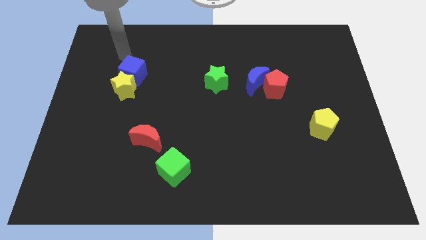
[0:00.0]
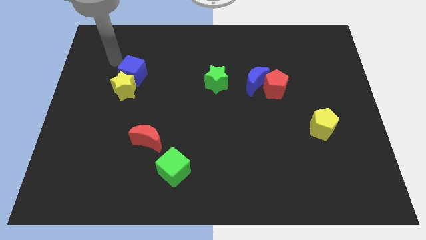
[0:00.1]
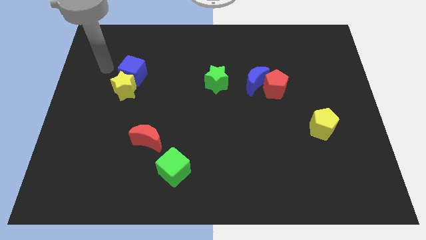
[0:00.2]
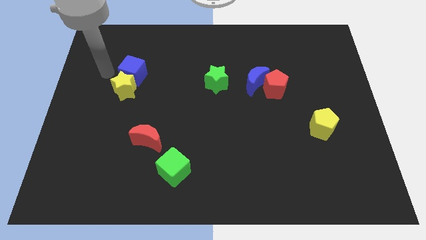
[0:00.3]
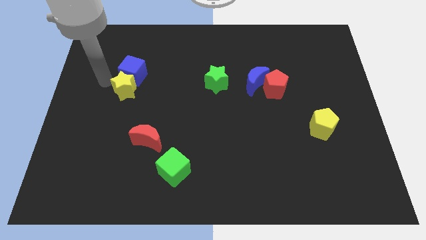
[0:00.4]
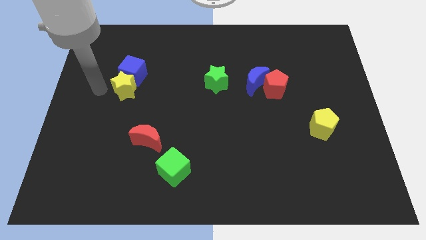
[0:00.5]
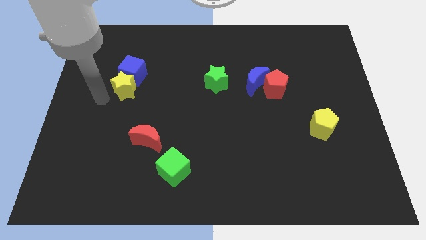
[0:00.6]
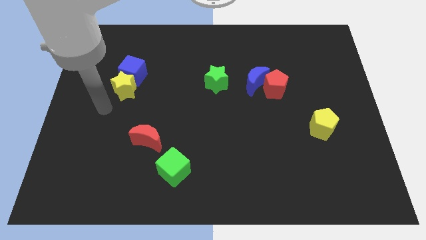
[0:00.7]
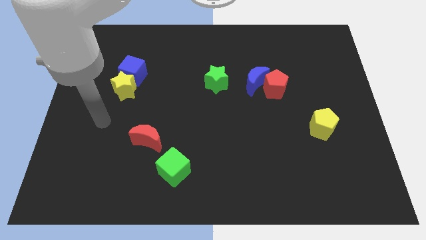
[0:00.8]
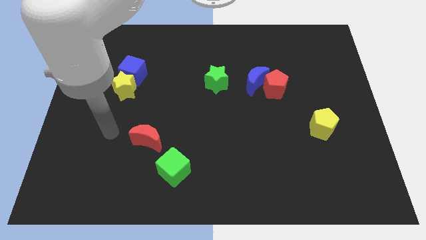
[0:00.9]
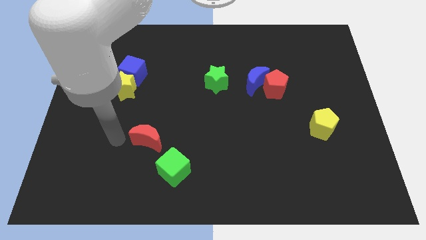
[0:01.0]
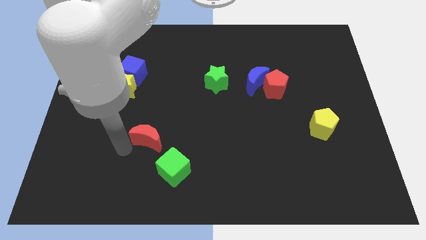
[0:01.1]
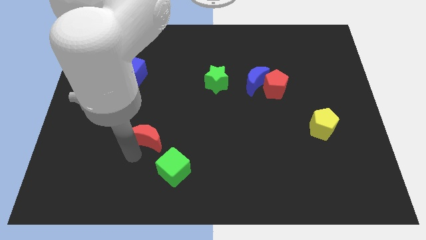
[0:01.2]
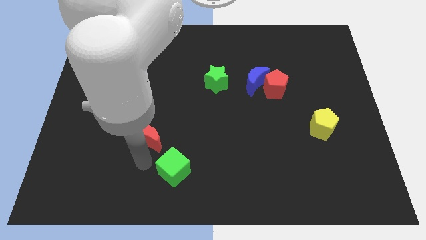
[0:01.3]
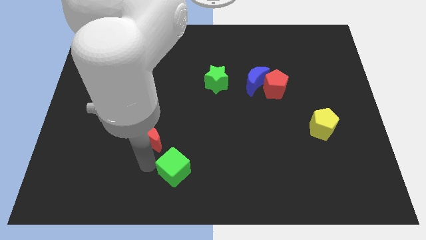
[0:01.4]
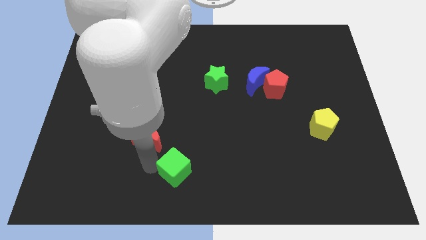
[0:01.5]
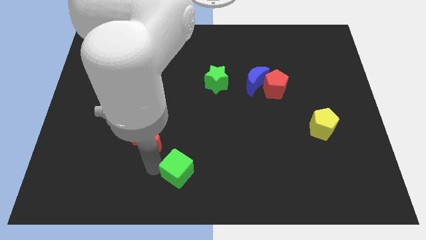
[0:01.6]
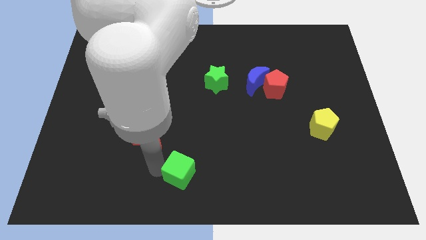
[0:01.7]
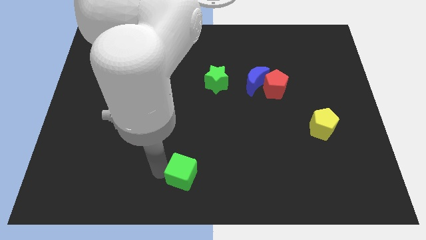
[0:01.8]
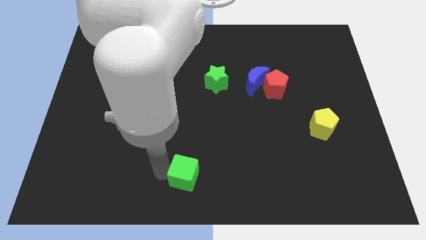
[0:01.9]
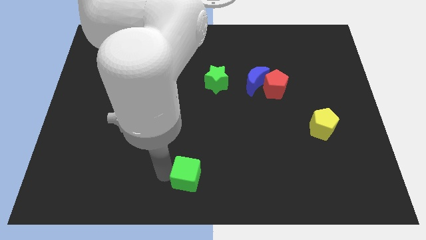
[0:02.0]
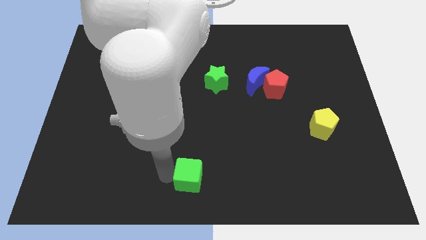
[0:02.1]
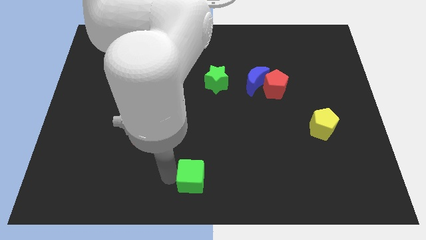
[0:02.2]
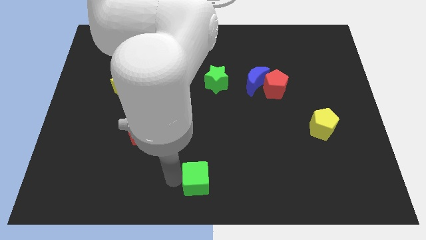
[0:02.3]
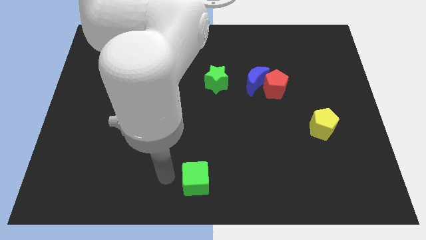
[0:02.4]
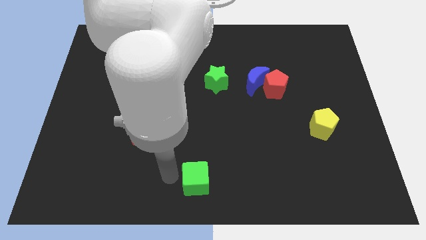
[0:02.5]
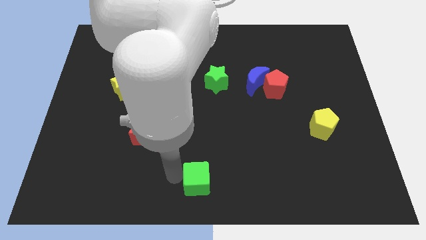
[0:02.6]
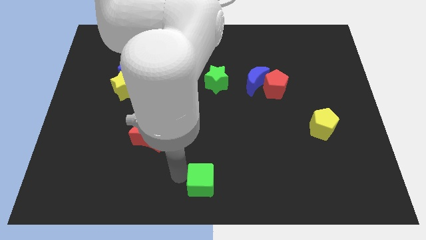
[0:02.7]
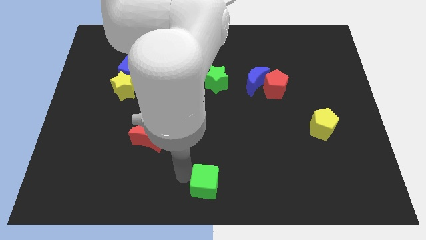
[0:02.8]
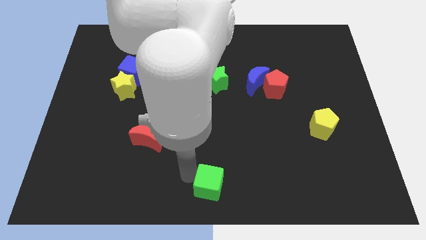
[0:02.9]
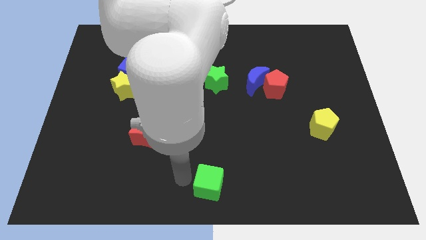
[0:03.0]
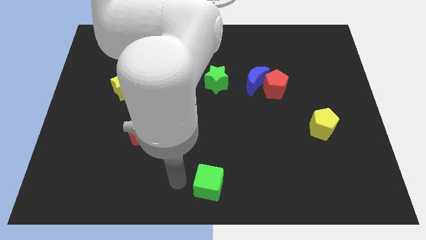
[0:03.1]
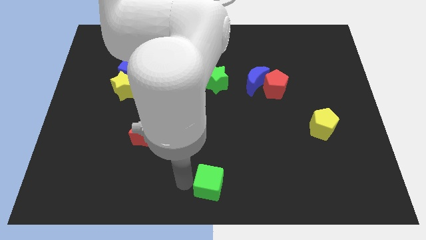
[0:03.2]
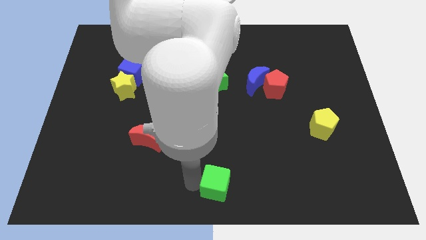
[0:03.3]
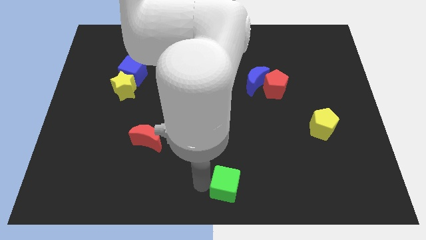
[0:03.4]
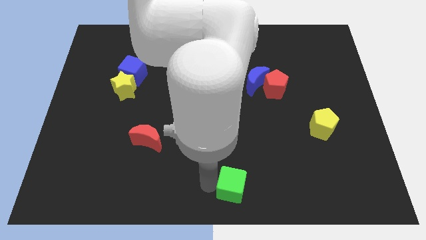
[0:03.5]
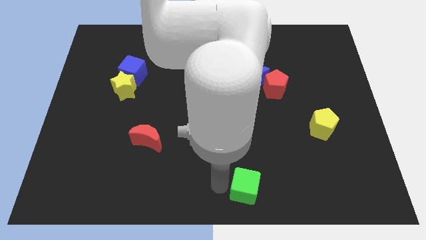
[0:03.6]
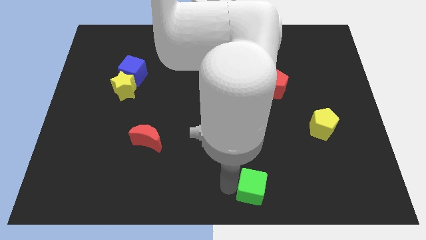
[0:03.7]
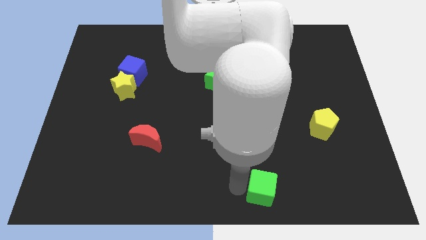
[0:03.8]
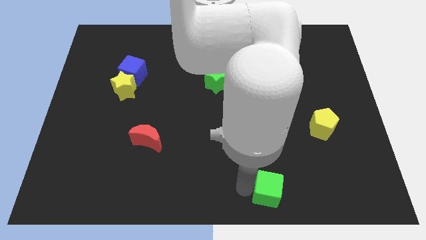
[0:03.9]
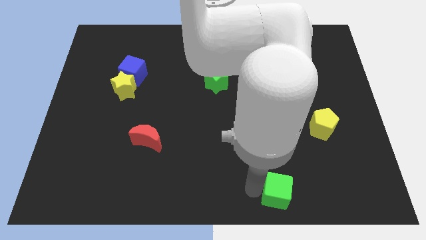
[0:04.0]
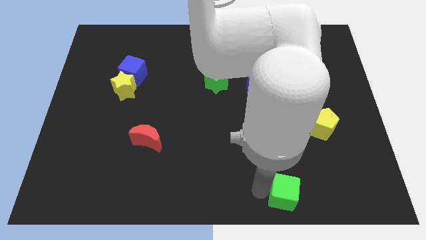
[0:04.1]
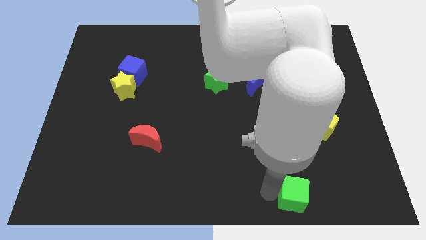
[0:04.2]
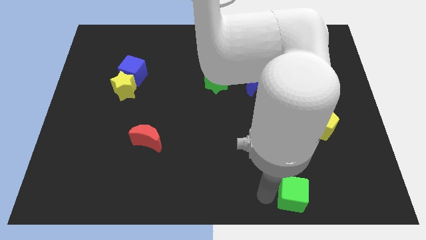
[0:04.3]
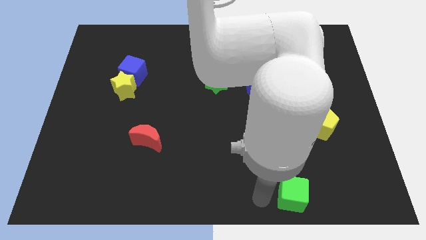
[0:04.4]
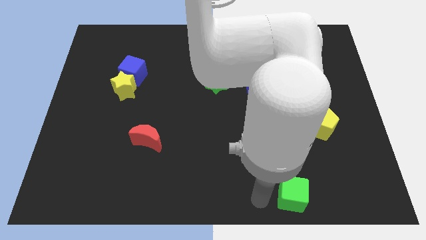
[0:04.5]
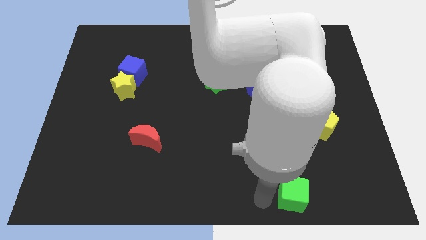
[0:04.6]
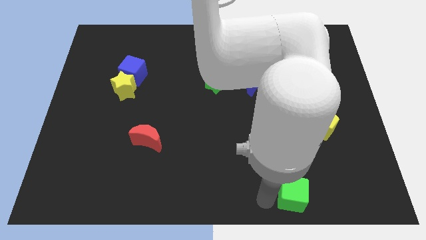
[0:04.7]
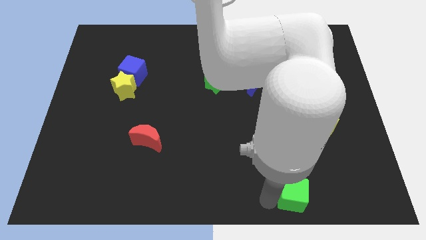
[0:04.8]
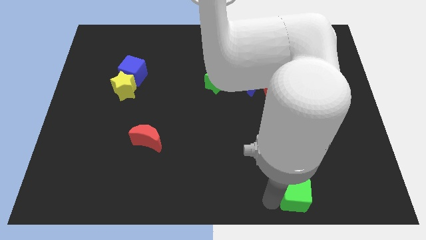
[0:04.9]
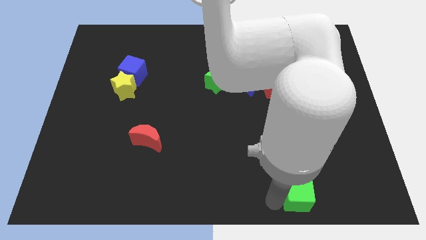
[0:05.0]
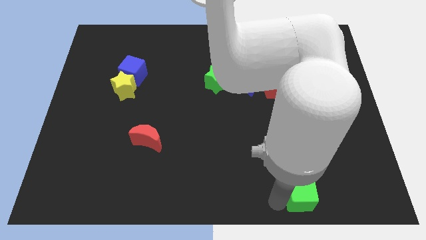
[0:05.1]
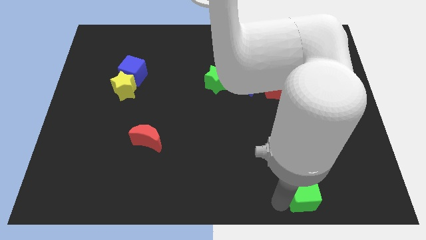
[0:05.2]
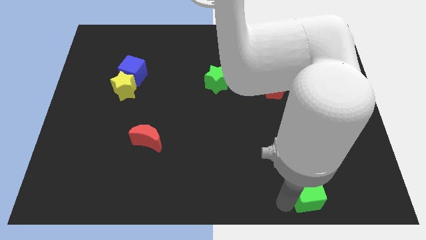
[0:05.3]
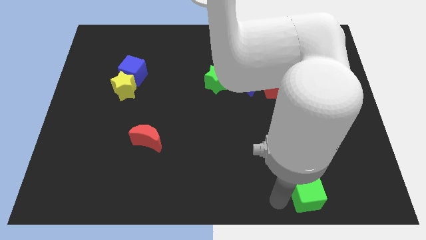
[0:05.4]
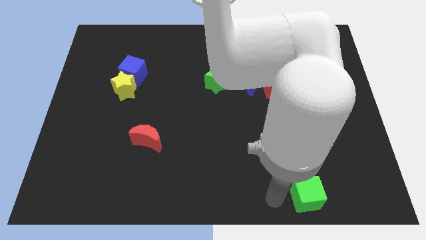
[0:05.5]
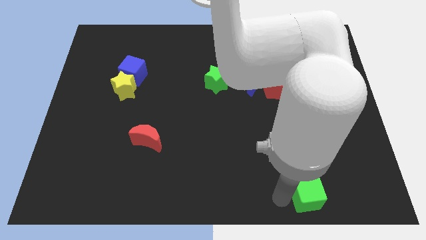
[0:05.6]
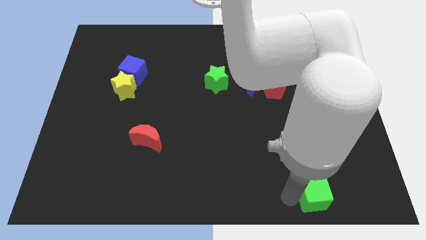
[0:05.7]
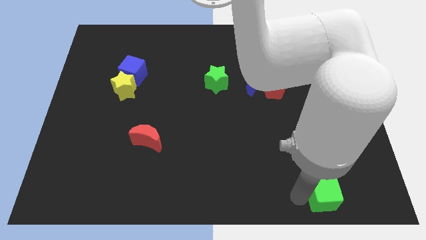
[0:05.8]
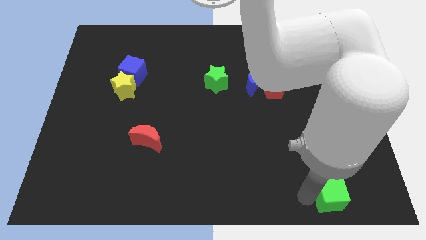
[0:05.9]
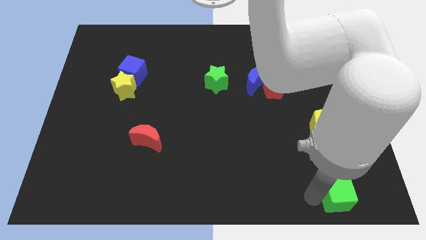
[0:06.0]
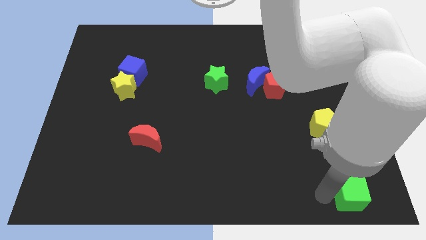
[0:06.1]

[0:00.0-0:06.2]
slide the green cube to the lower right corner
